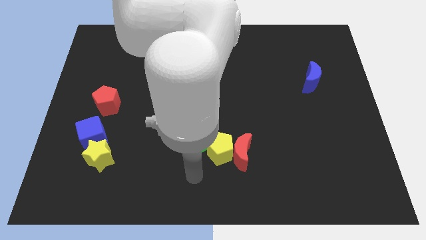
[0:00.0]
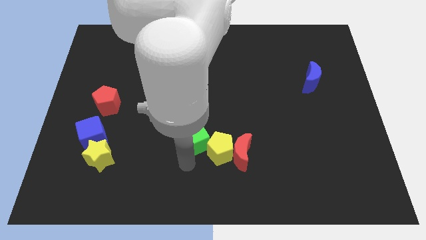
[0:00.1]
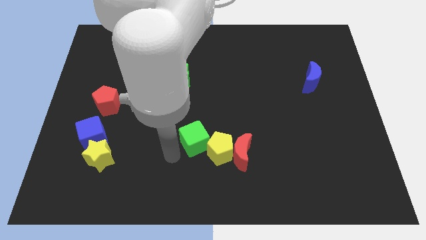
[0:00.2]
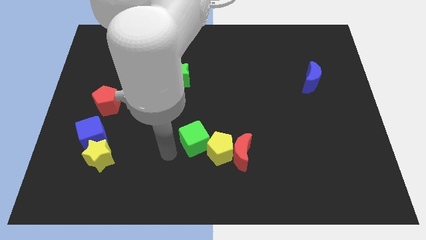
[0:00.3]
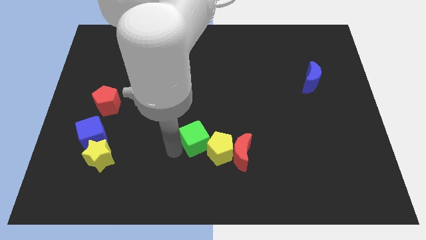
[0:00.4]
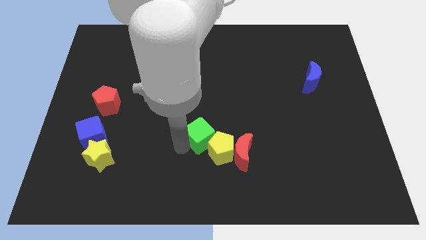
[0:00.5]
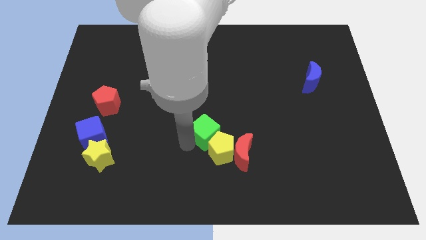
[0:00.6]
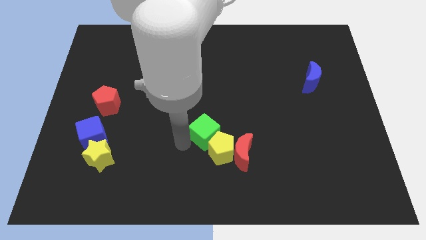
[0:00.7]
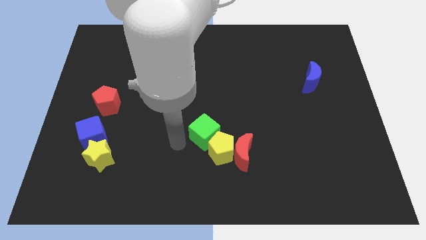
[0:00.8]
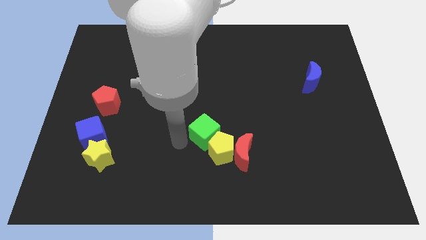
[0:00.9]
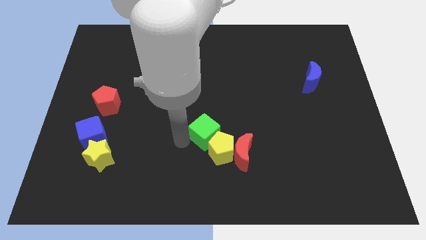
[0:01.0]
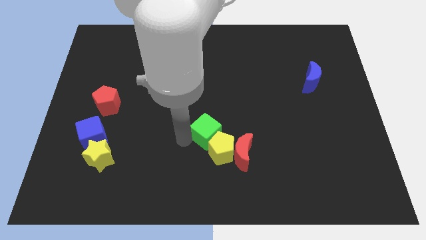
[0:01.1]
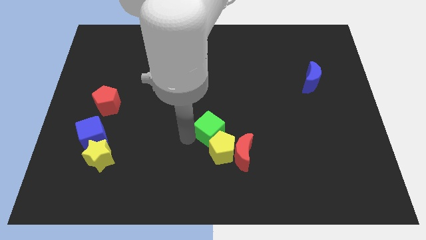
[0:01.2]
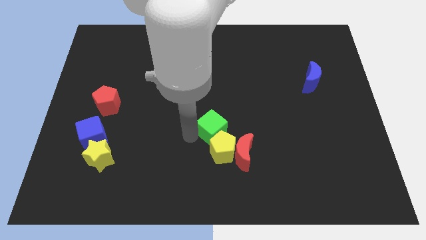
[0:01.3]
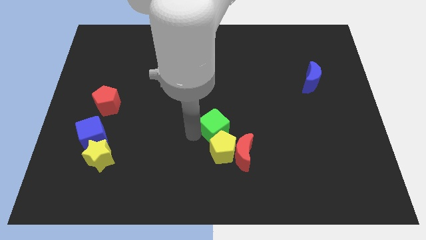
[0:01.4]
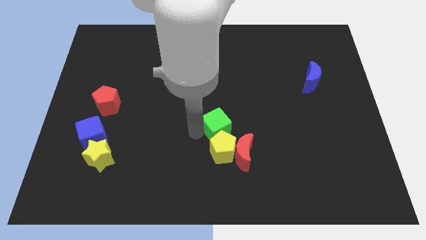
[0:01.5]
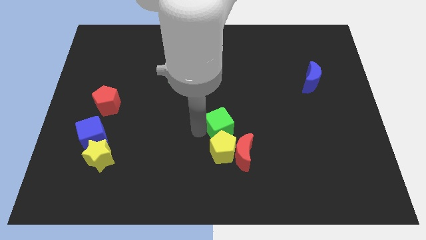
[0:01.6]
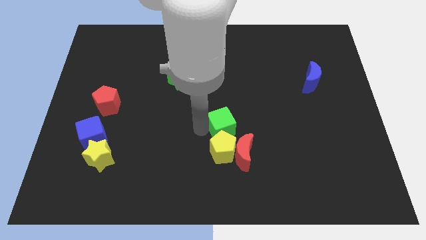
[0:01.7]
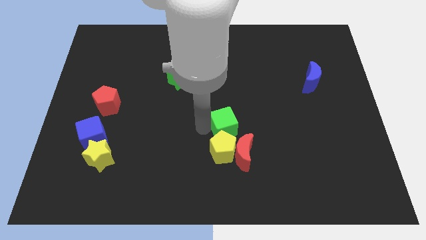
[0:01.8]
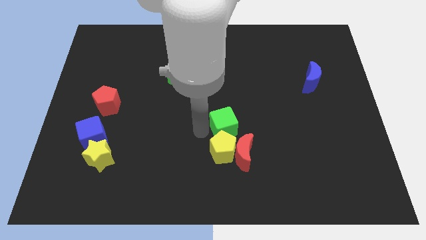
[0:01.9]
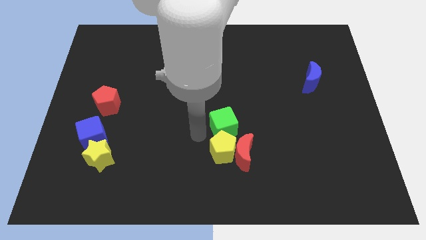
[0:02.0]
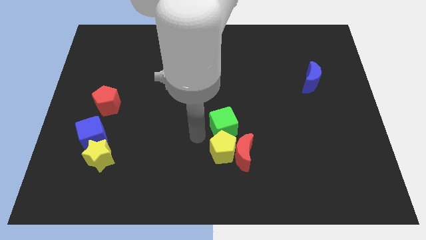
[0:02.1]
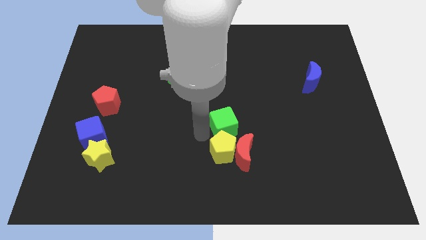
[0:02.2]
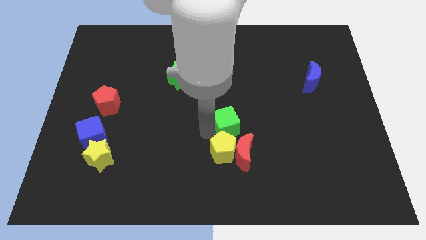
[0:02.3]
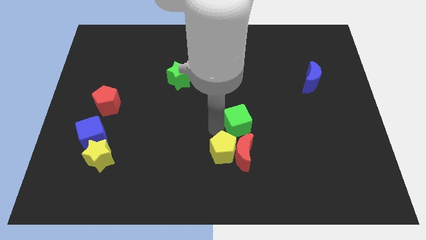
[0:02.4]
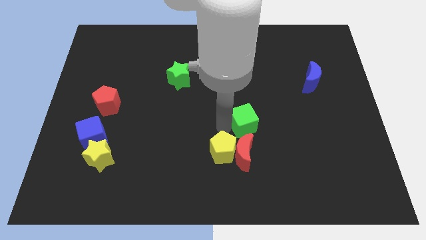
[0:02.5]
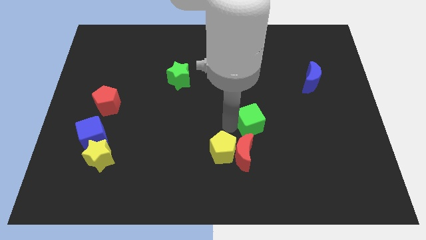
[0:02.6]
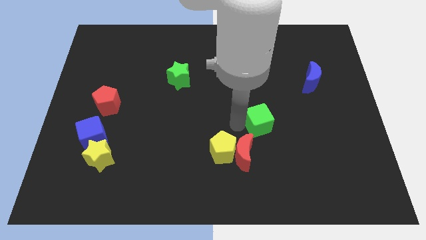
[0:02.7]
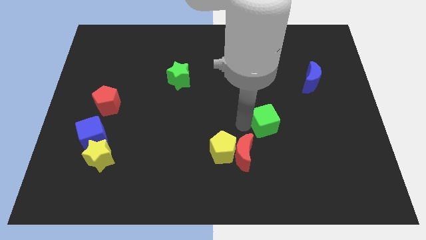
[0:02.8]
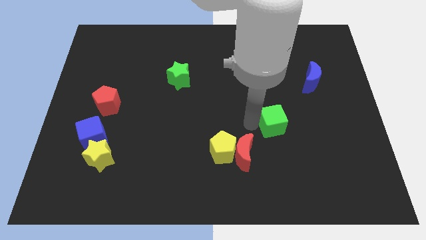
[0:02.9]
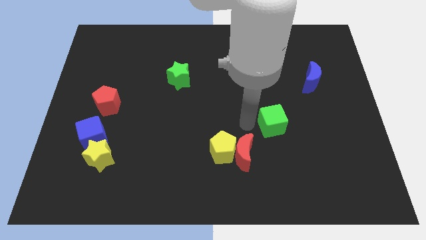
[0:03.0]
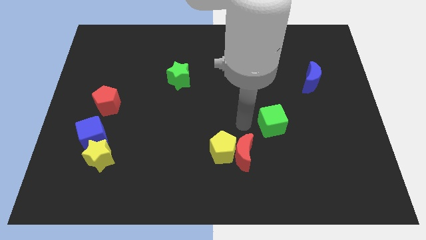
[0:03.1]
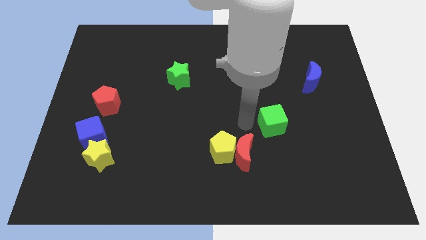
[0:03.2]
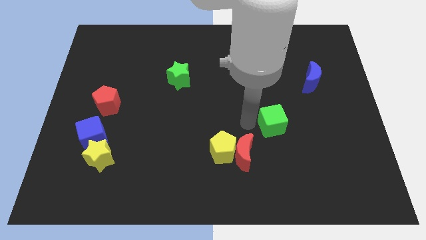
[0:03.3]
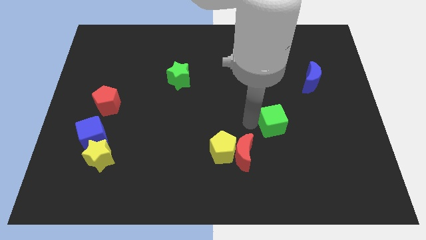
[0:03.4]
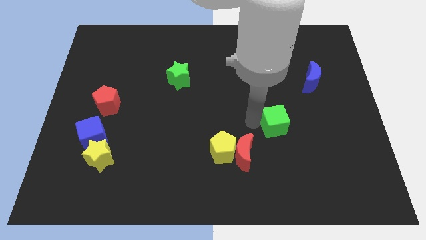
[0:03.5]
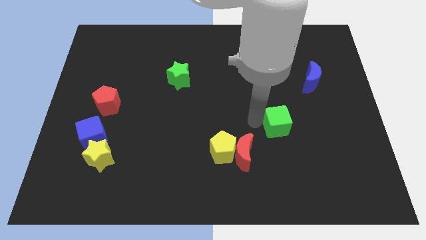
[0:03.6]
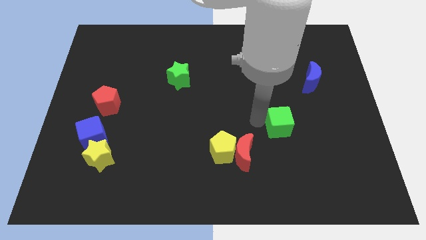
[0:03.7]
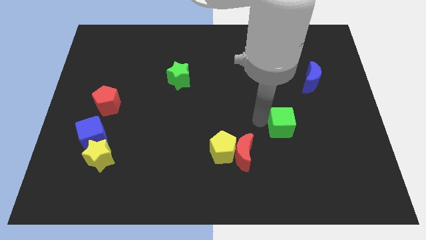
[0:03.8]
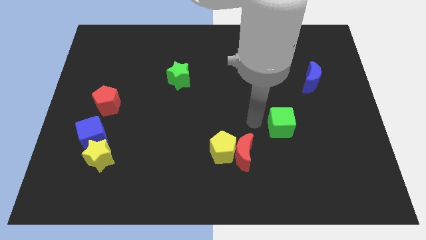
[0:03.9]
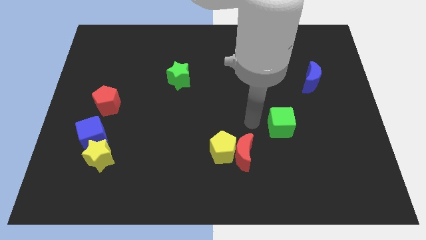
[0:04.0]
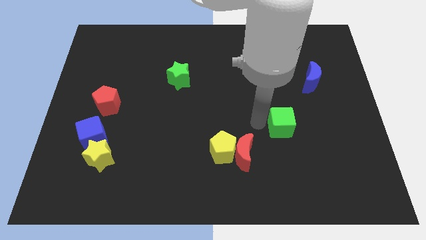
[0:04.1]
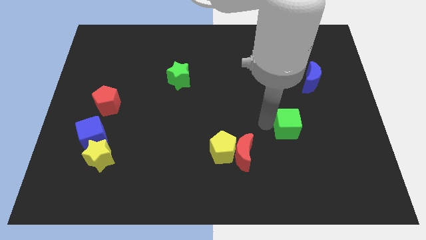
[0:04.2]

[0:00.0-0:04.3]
move the green cube to the right

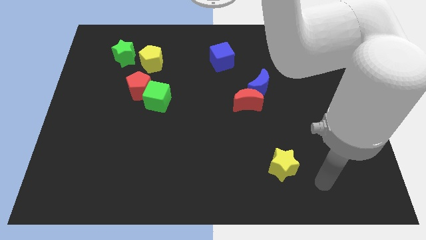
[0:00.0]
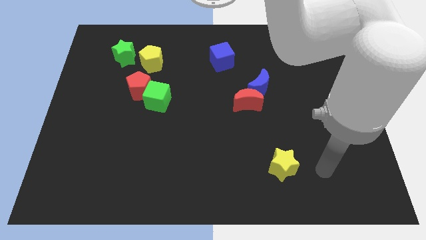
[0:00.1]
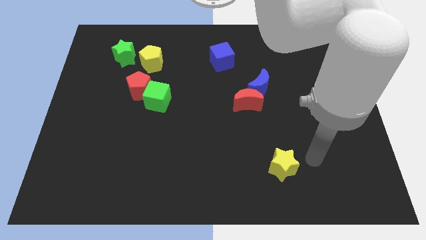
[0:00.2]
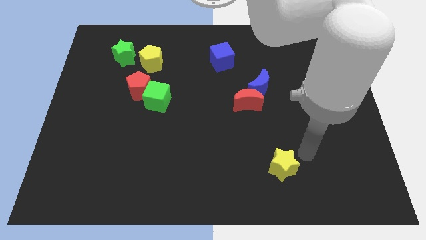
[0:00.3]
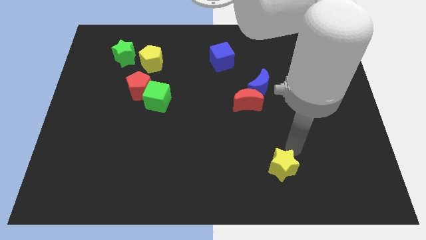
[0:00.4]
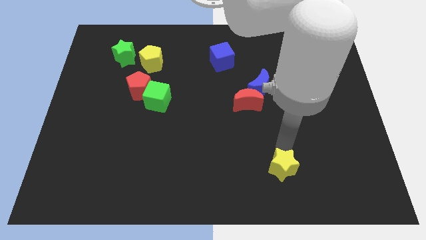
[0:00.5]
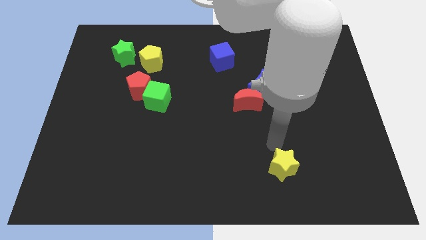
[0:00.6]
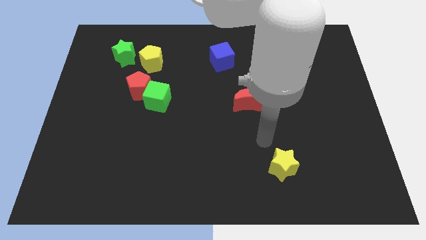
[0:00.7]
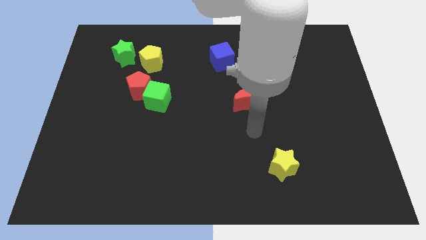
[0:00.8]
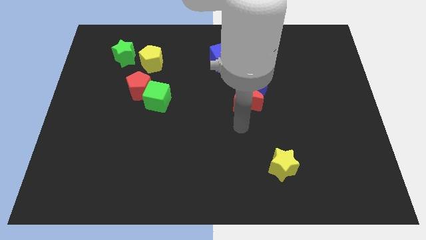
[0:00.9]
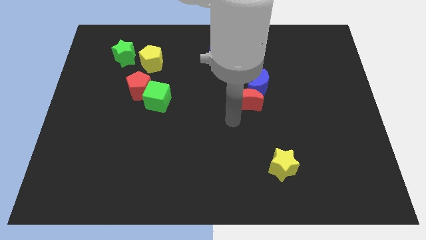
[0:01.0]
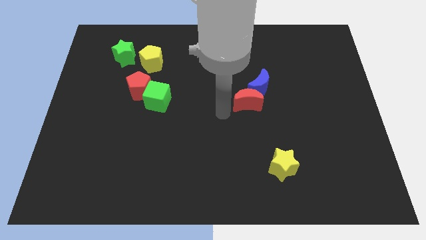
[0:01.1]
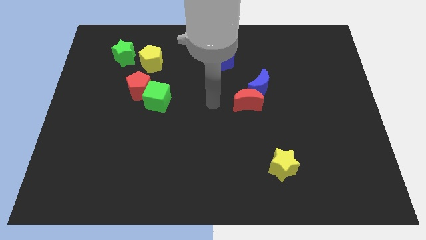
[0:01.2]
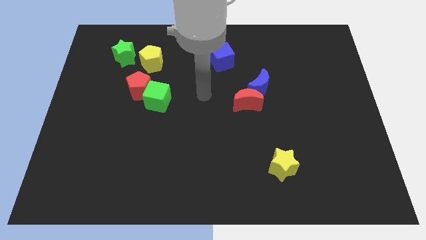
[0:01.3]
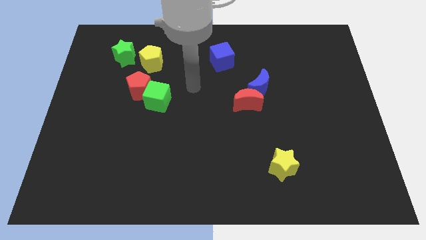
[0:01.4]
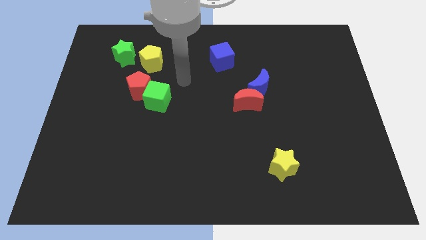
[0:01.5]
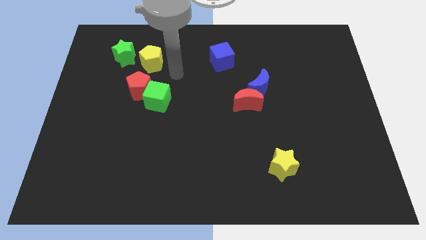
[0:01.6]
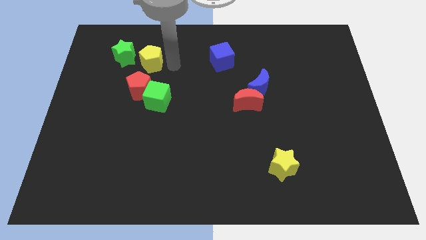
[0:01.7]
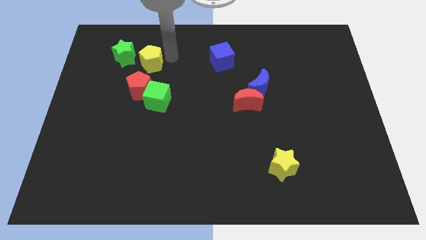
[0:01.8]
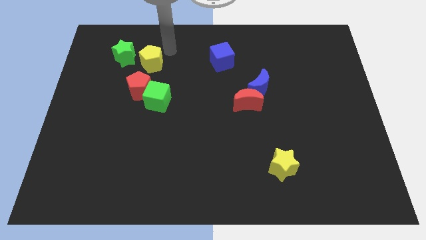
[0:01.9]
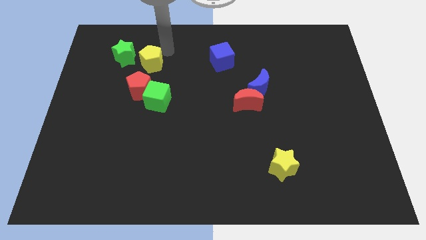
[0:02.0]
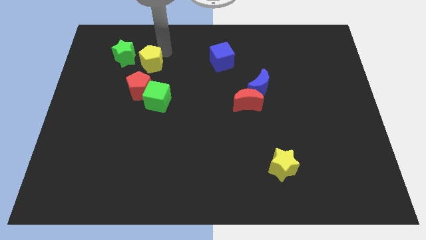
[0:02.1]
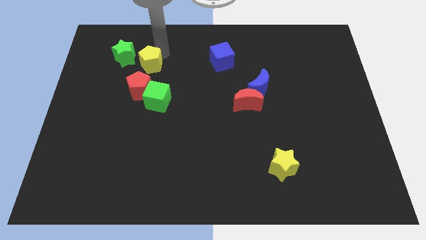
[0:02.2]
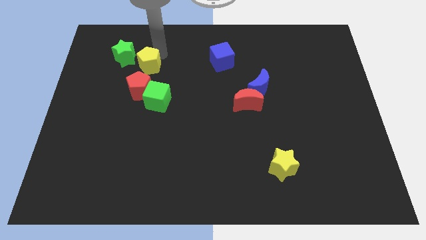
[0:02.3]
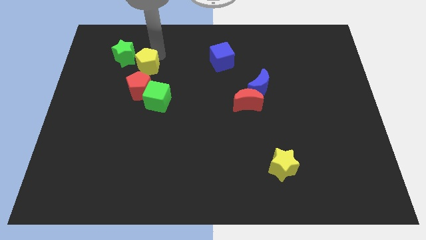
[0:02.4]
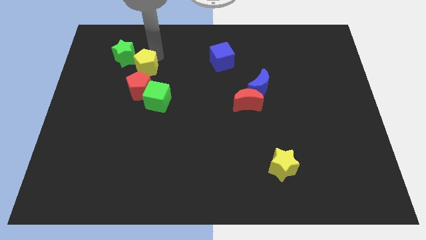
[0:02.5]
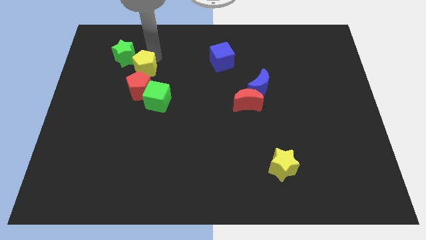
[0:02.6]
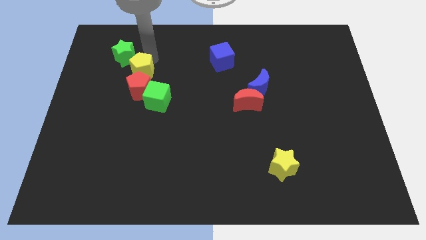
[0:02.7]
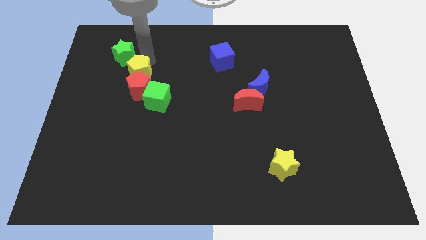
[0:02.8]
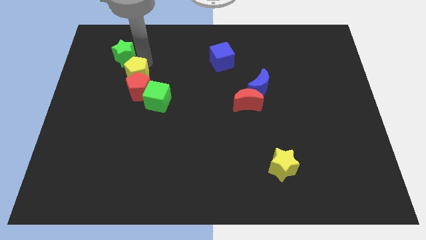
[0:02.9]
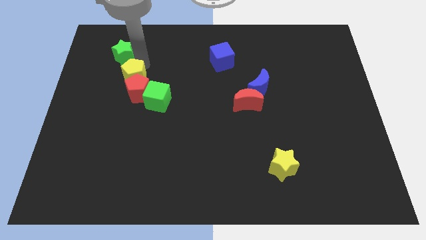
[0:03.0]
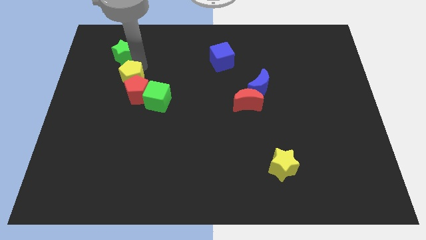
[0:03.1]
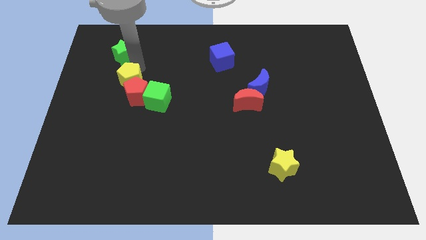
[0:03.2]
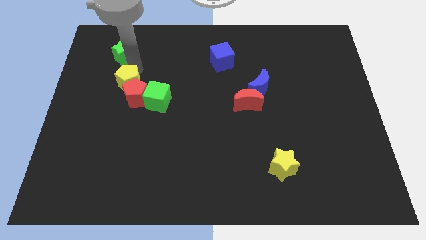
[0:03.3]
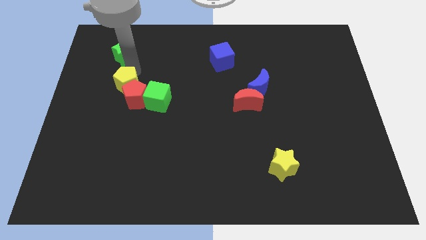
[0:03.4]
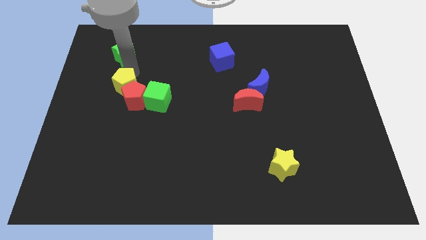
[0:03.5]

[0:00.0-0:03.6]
push the yellow pentagon slightly down

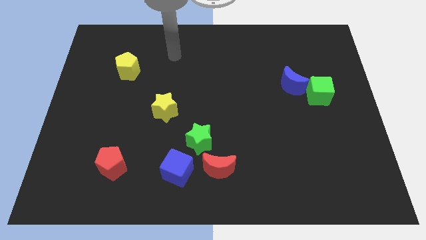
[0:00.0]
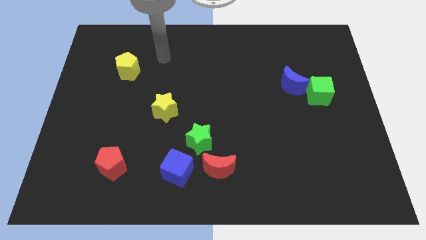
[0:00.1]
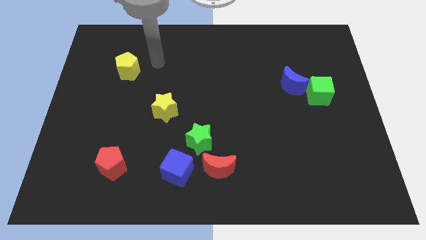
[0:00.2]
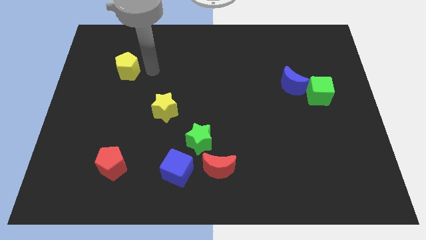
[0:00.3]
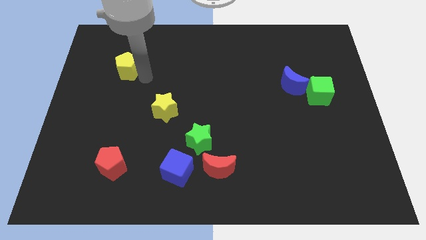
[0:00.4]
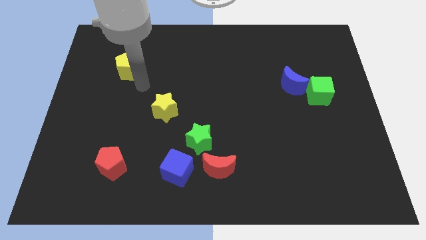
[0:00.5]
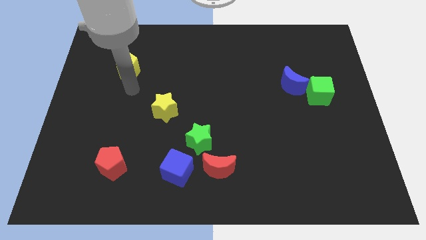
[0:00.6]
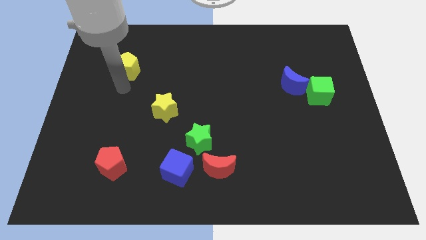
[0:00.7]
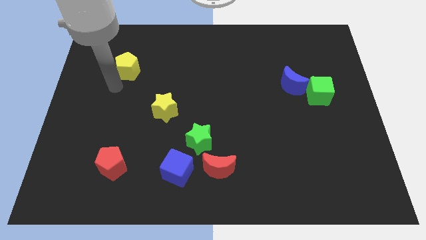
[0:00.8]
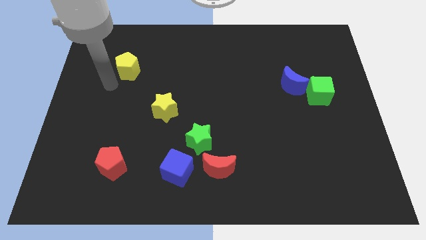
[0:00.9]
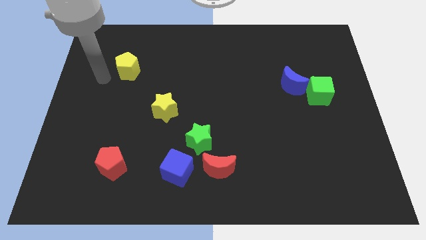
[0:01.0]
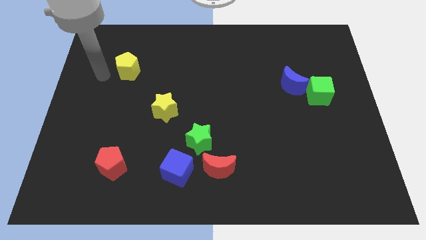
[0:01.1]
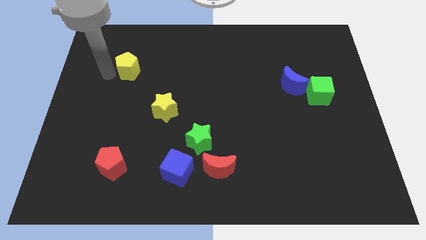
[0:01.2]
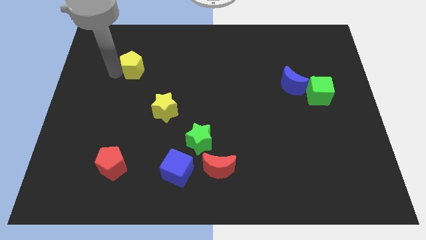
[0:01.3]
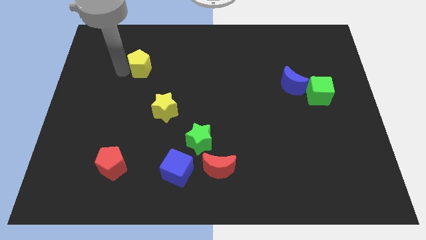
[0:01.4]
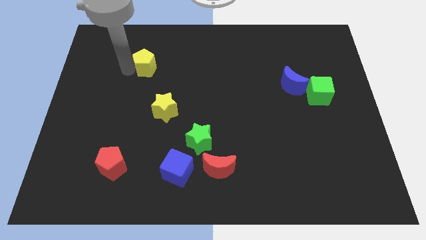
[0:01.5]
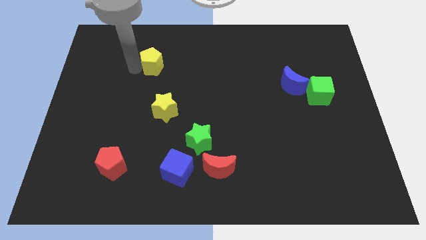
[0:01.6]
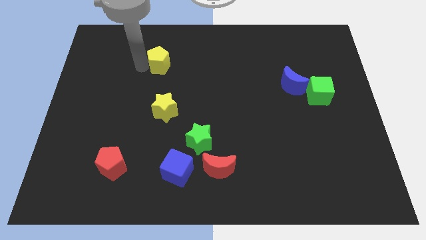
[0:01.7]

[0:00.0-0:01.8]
slide the yellow pentagon to the right a little bit
